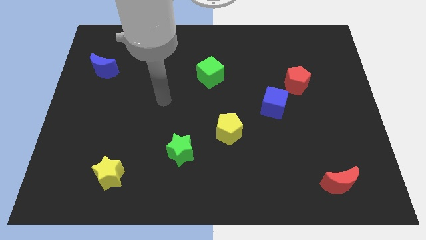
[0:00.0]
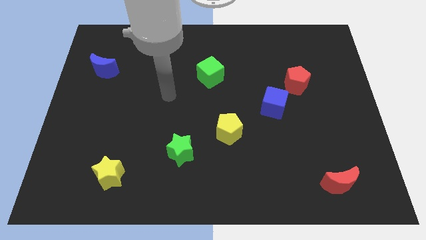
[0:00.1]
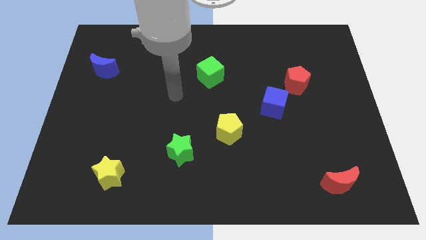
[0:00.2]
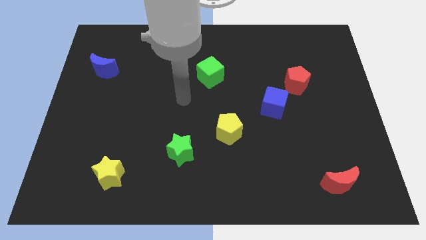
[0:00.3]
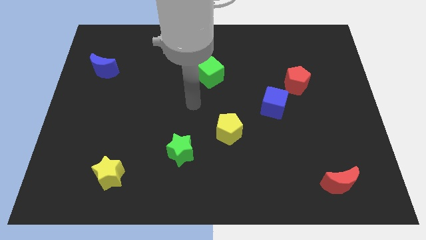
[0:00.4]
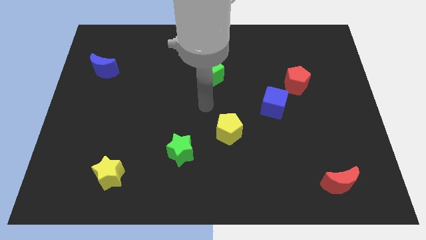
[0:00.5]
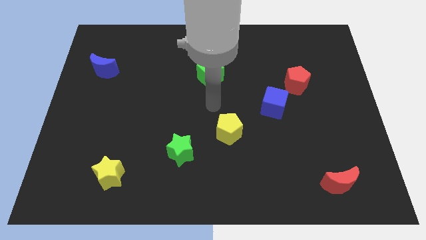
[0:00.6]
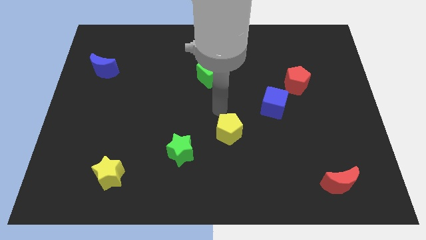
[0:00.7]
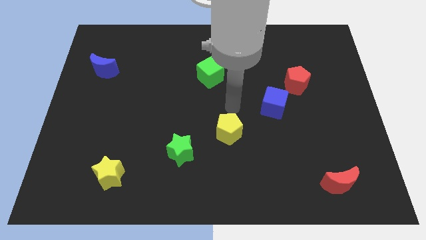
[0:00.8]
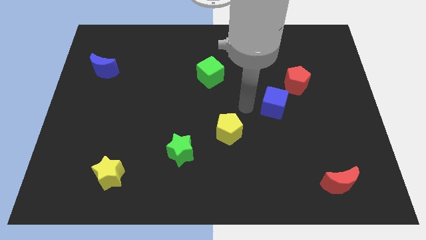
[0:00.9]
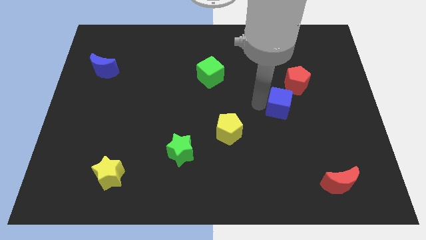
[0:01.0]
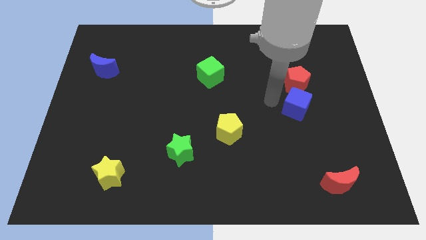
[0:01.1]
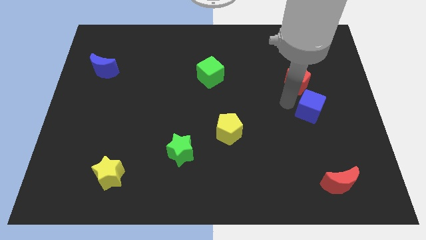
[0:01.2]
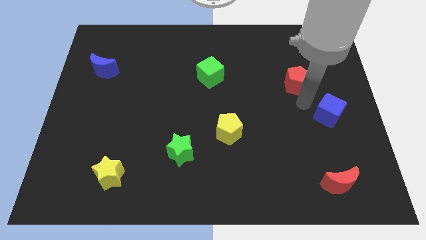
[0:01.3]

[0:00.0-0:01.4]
separate the red pentagon from the blue cube

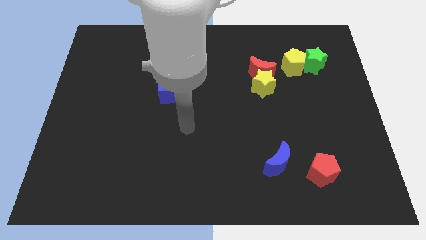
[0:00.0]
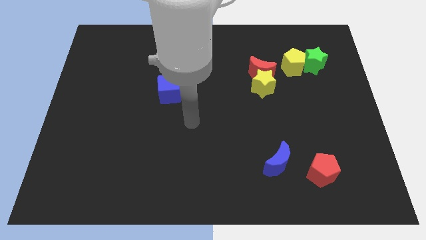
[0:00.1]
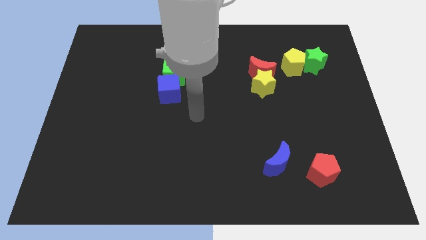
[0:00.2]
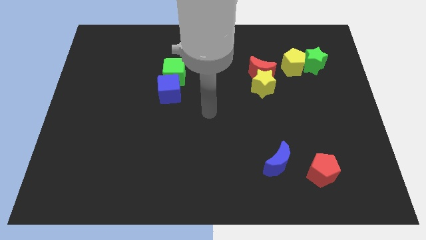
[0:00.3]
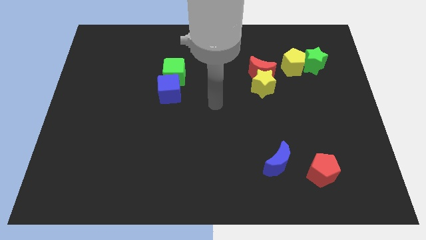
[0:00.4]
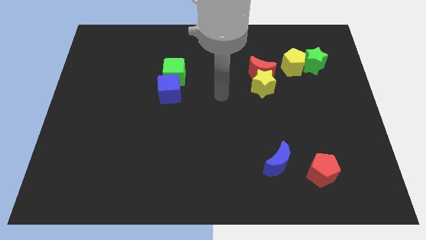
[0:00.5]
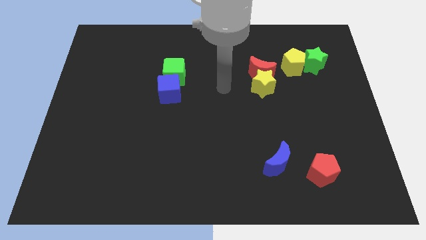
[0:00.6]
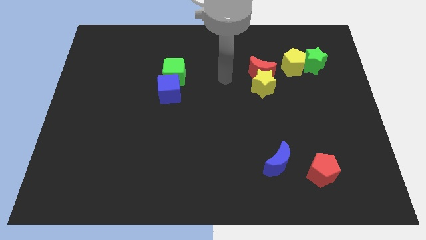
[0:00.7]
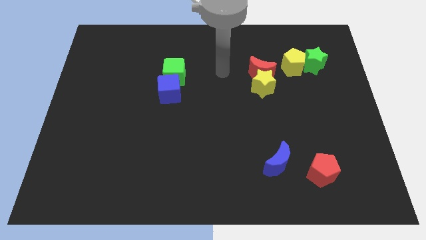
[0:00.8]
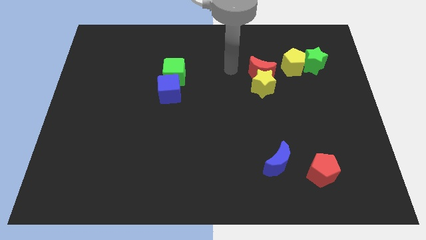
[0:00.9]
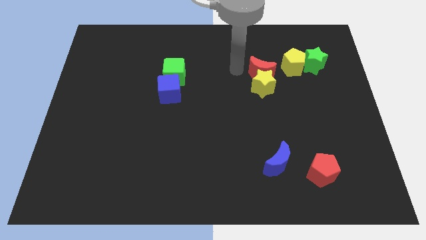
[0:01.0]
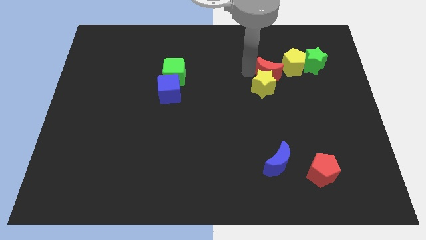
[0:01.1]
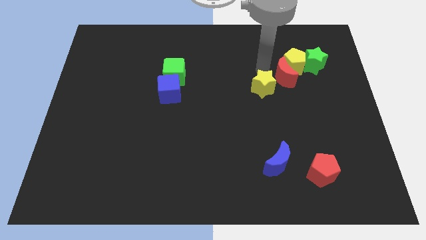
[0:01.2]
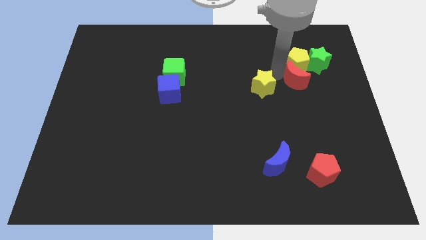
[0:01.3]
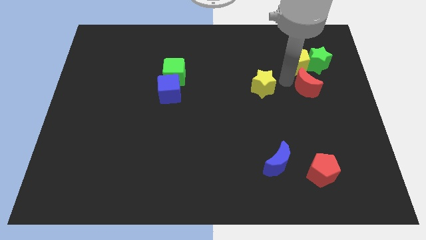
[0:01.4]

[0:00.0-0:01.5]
separate the yellow star from the red moon

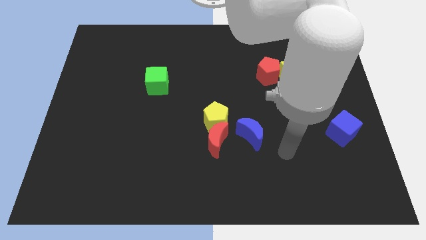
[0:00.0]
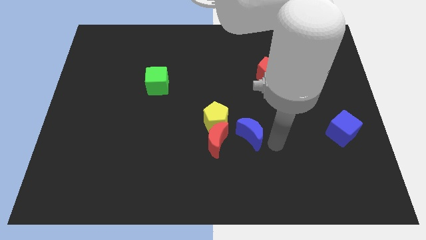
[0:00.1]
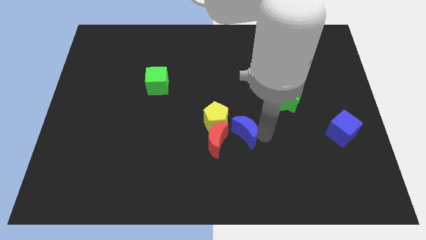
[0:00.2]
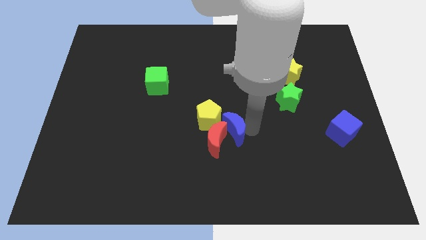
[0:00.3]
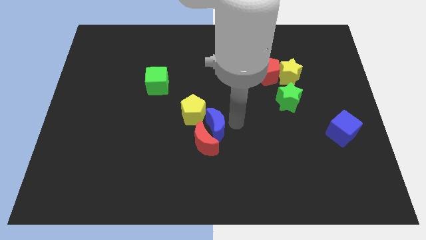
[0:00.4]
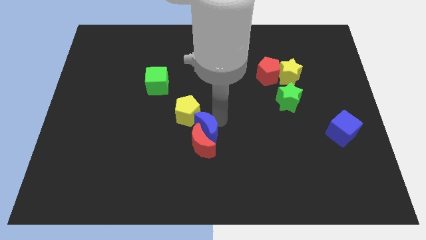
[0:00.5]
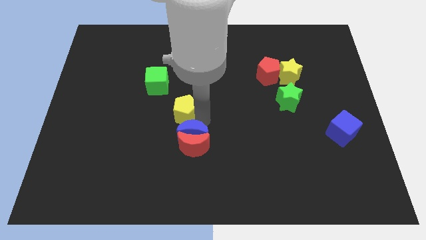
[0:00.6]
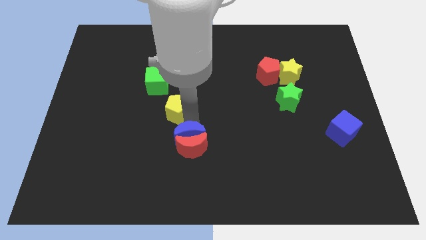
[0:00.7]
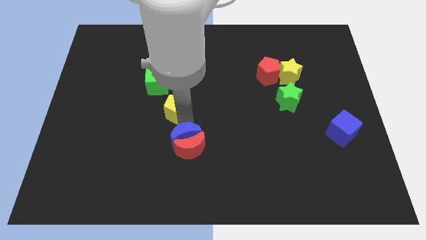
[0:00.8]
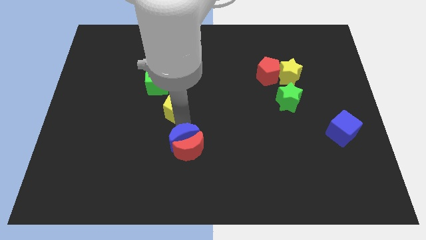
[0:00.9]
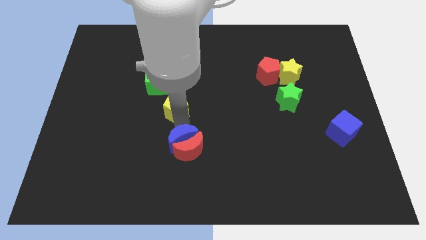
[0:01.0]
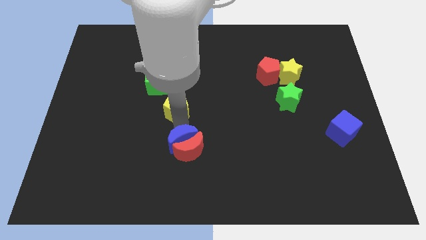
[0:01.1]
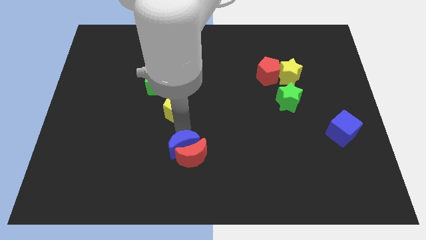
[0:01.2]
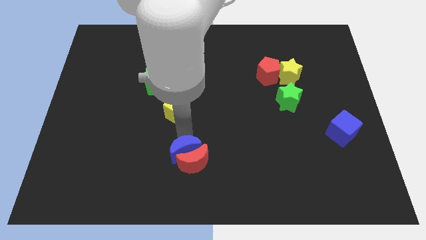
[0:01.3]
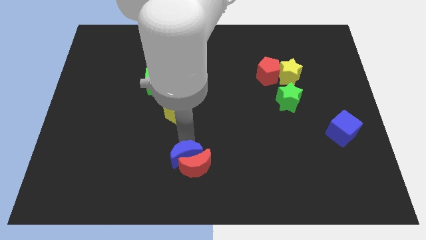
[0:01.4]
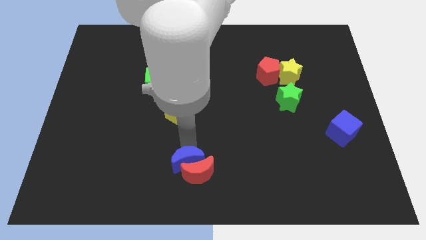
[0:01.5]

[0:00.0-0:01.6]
move the red moon away from the yellow pentagon and blue moon

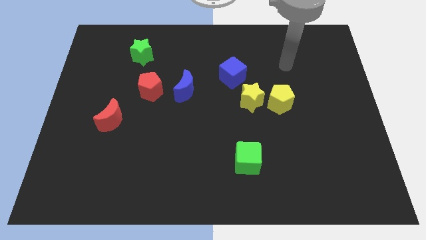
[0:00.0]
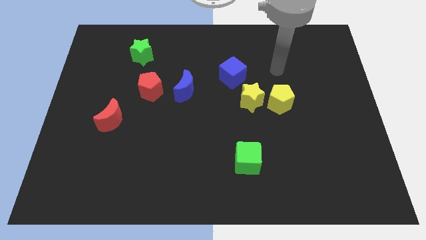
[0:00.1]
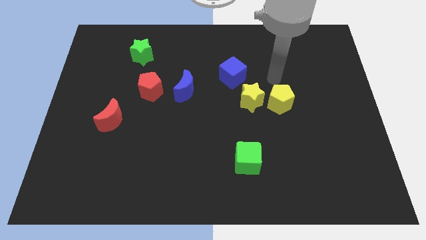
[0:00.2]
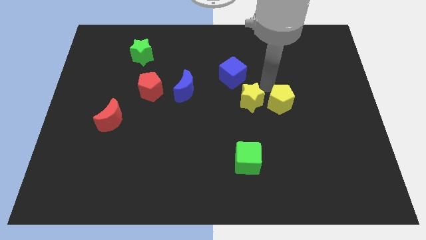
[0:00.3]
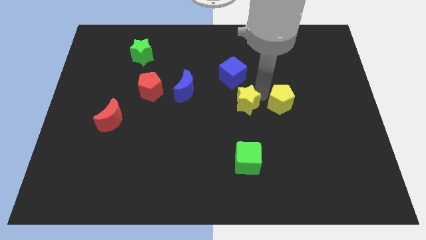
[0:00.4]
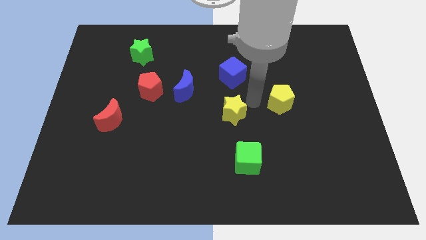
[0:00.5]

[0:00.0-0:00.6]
pull the yellow pentagon apart from the yellow star

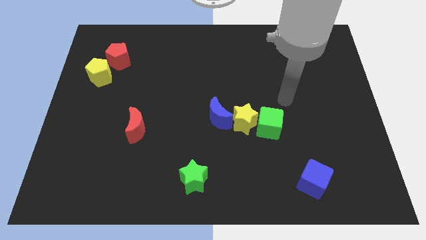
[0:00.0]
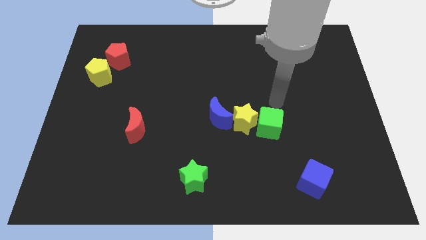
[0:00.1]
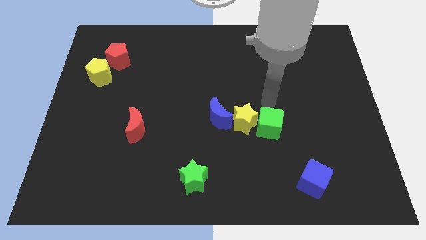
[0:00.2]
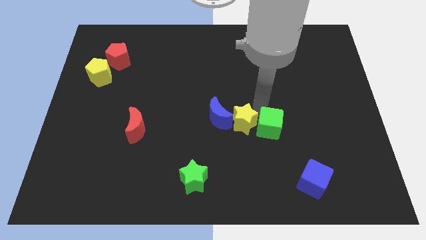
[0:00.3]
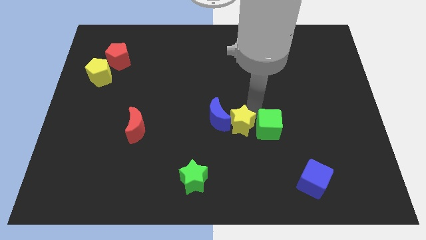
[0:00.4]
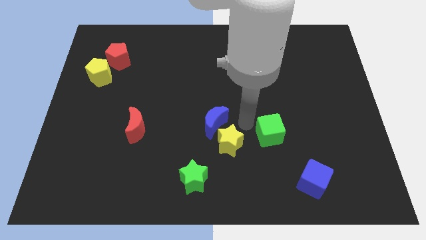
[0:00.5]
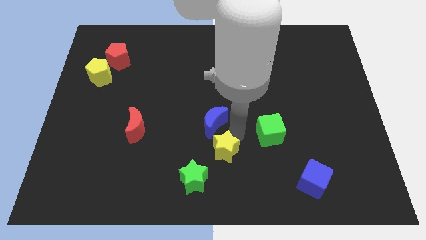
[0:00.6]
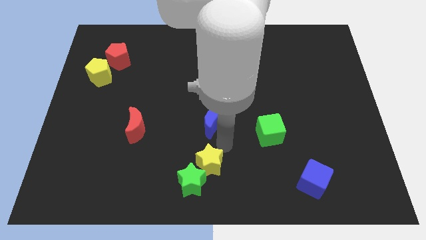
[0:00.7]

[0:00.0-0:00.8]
pull the blue moon apart from the yellow star

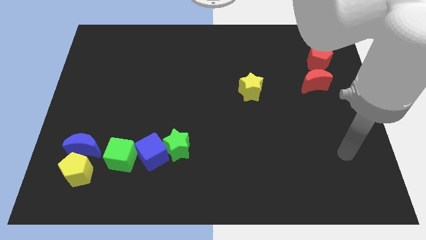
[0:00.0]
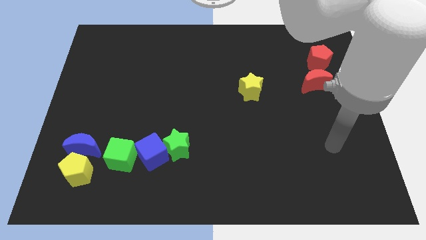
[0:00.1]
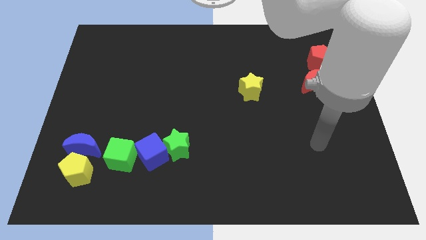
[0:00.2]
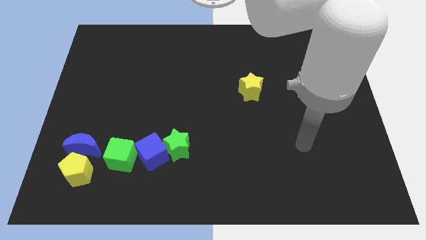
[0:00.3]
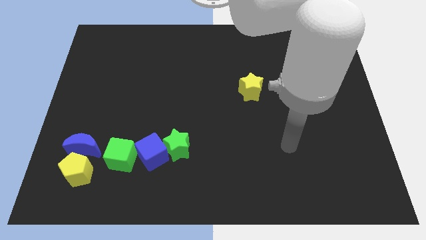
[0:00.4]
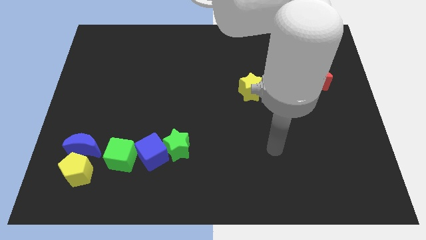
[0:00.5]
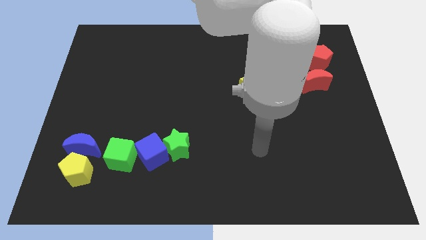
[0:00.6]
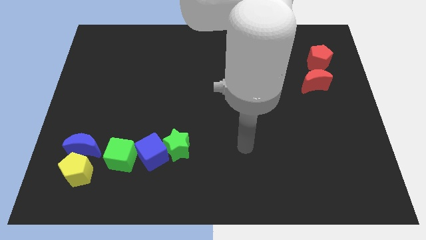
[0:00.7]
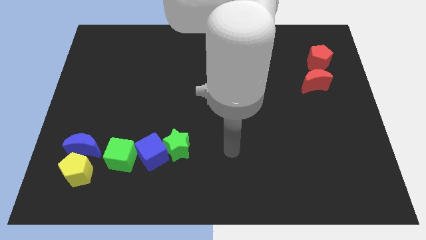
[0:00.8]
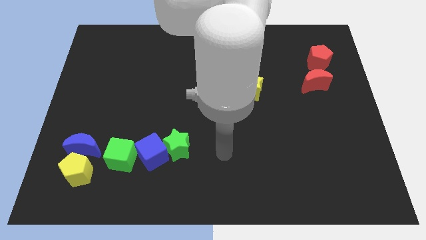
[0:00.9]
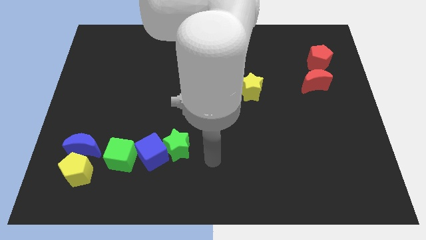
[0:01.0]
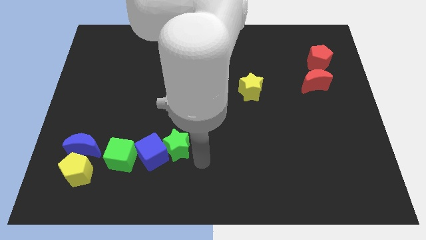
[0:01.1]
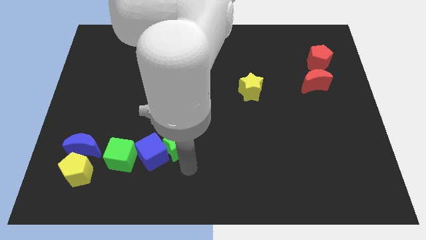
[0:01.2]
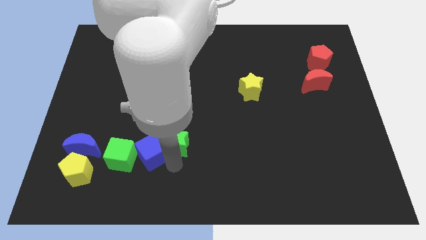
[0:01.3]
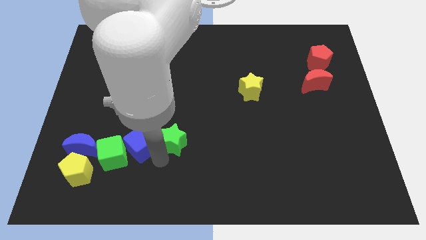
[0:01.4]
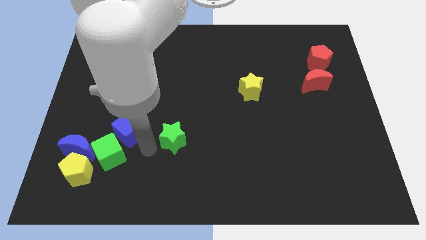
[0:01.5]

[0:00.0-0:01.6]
separate the green star from the blue cube

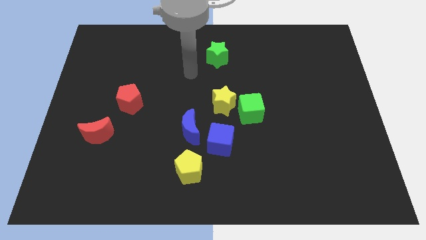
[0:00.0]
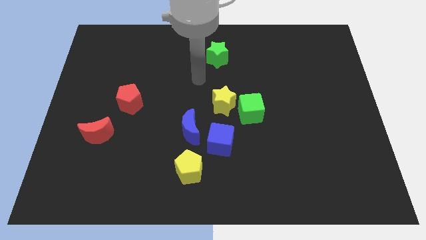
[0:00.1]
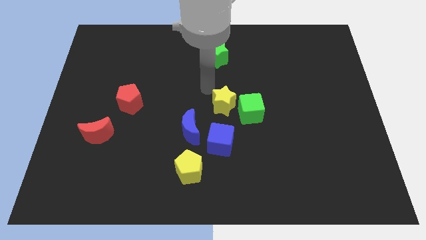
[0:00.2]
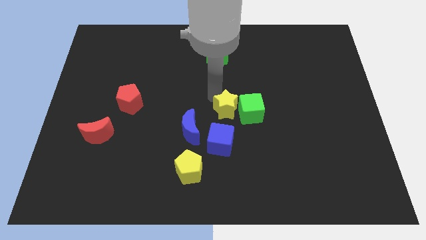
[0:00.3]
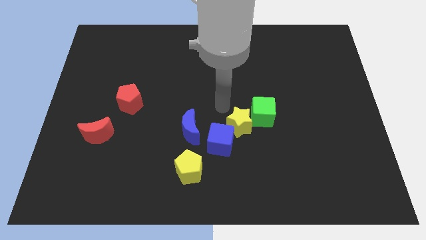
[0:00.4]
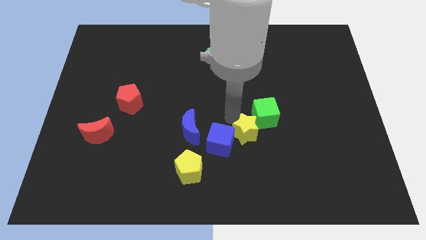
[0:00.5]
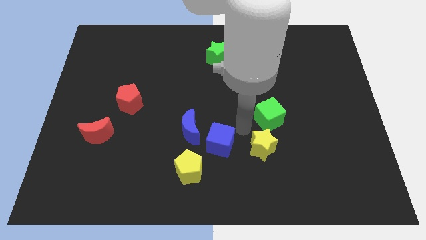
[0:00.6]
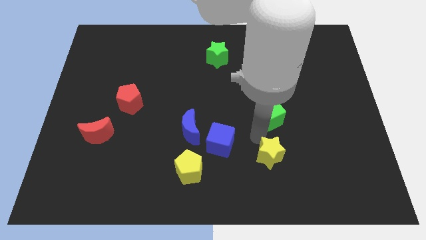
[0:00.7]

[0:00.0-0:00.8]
pull the green cube apart from the yellow star

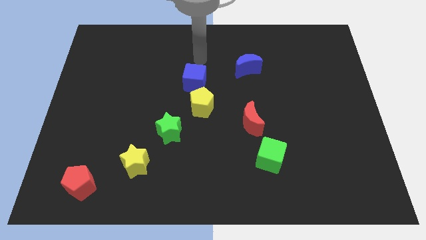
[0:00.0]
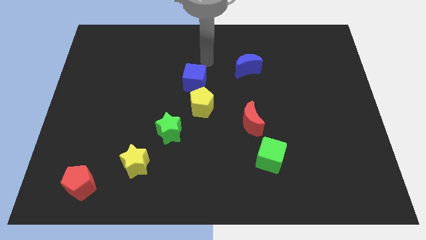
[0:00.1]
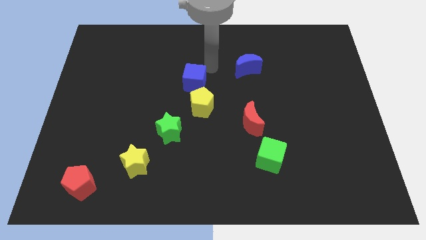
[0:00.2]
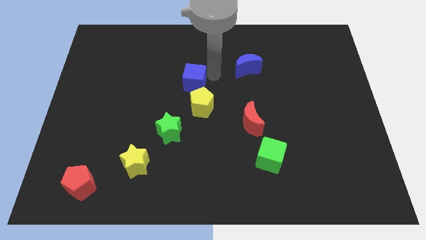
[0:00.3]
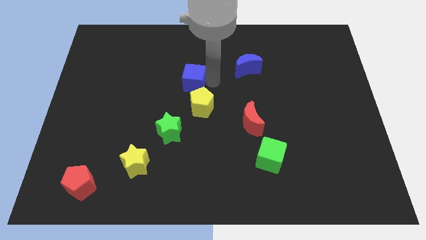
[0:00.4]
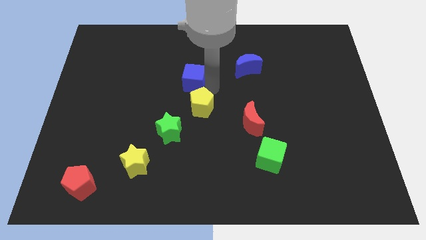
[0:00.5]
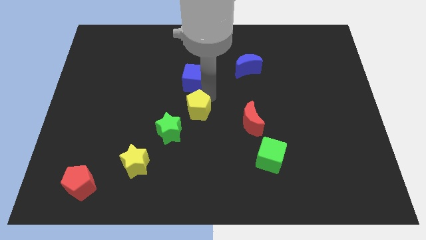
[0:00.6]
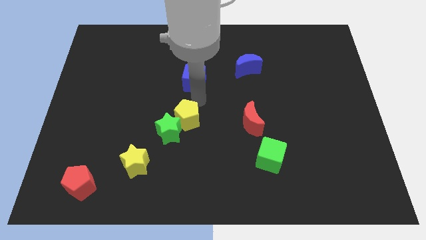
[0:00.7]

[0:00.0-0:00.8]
move the blue cube away from the yellow pentagon

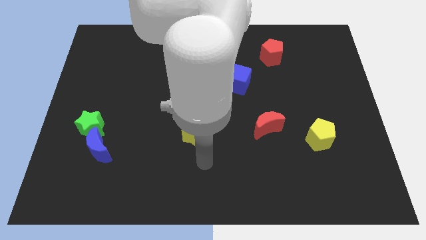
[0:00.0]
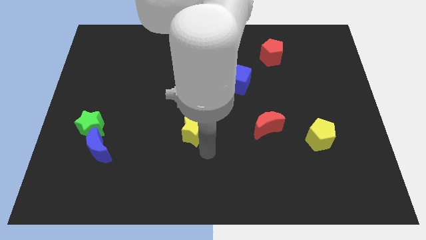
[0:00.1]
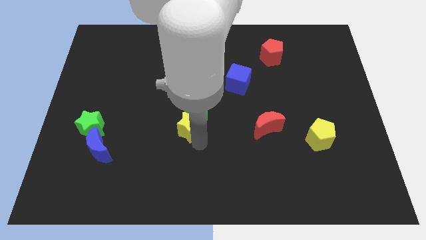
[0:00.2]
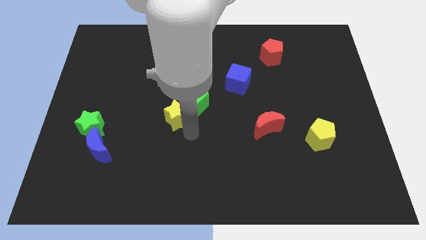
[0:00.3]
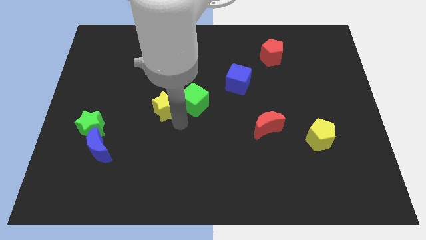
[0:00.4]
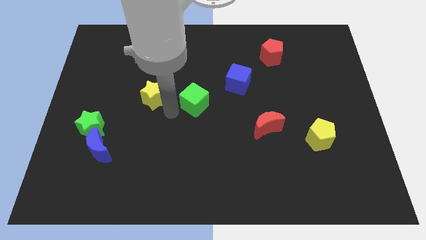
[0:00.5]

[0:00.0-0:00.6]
move the green cube away from the yellow star
